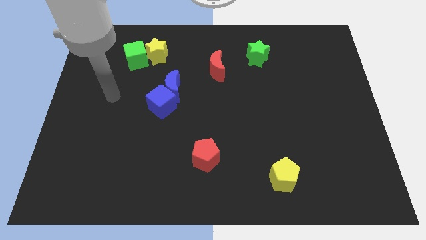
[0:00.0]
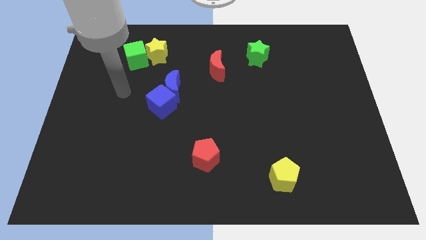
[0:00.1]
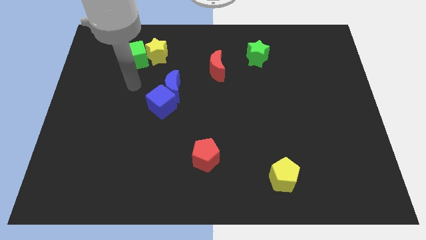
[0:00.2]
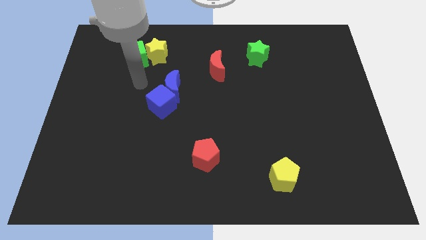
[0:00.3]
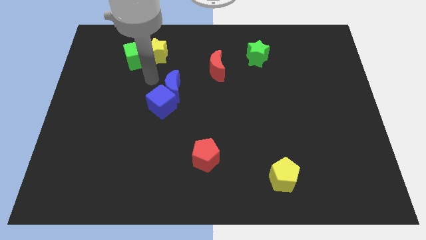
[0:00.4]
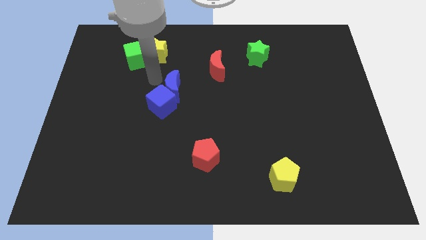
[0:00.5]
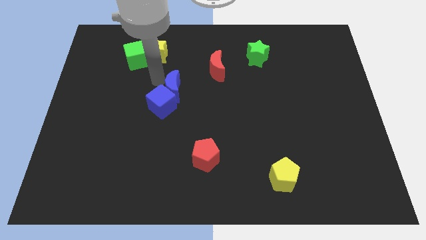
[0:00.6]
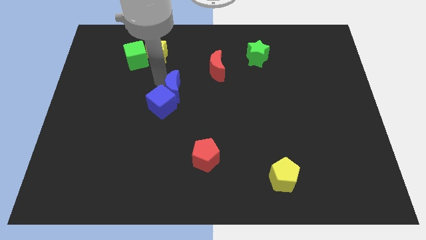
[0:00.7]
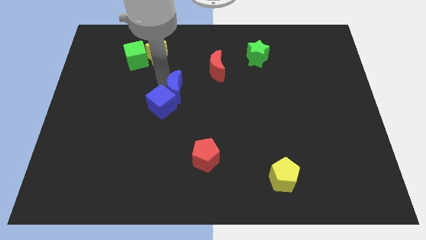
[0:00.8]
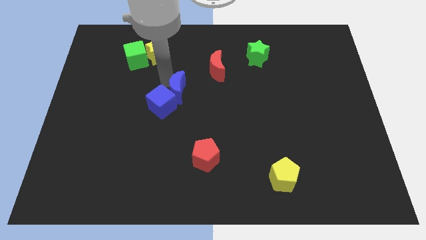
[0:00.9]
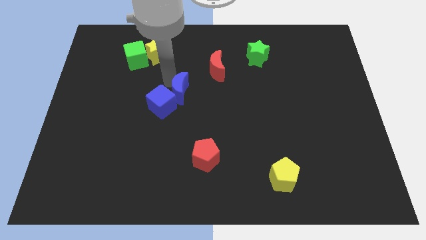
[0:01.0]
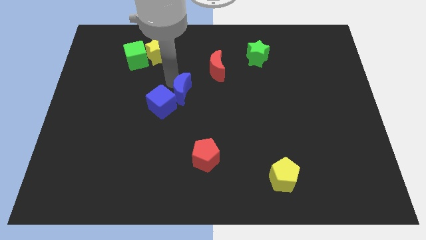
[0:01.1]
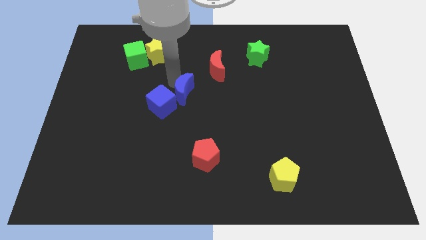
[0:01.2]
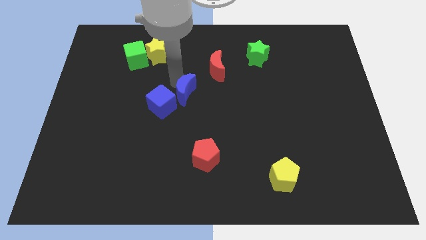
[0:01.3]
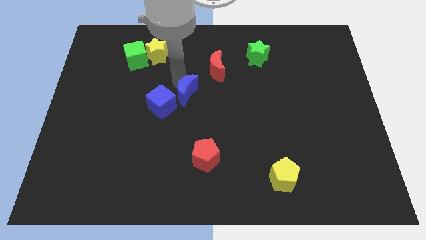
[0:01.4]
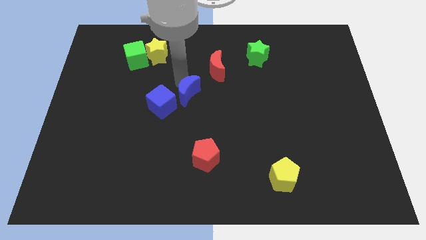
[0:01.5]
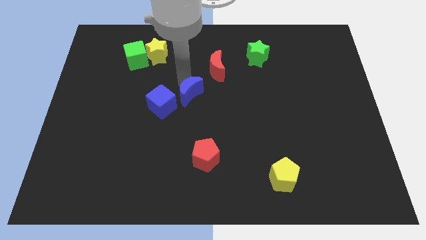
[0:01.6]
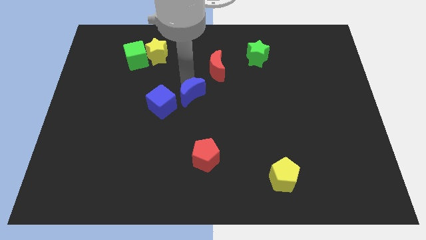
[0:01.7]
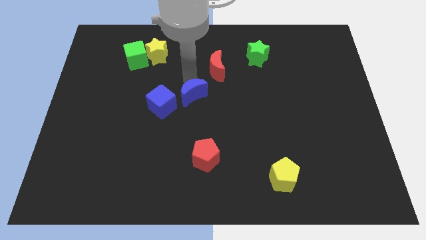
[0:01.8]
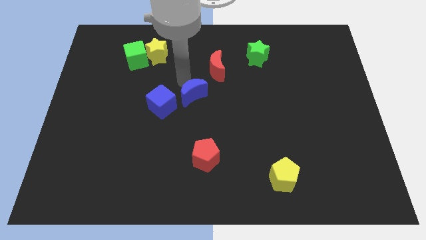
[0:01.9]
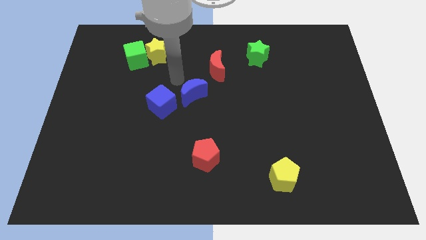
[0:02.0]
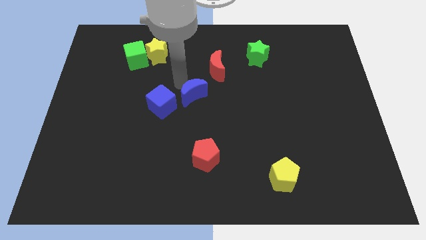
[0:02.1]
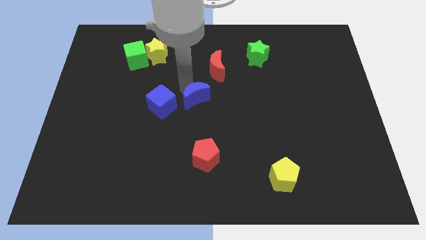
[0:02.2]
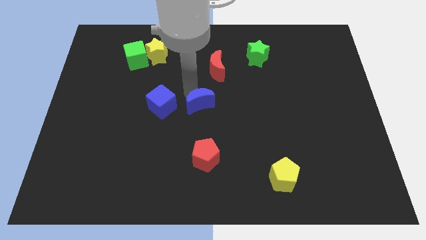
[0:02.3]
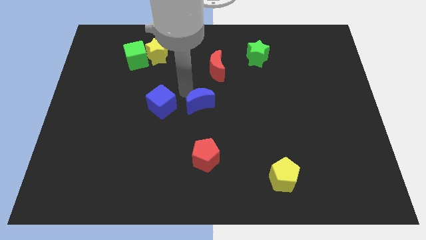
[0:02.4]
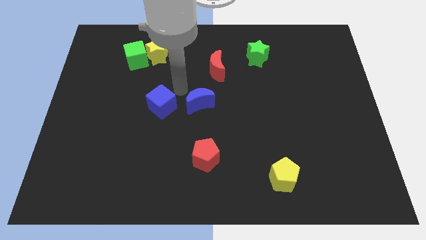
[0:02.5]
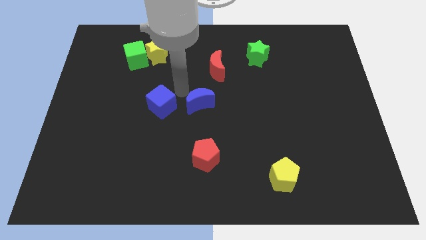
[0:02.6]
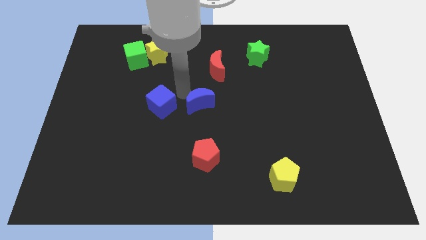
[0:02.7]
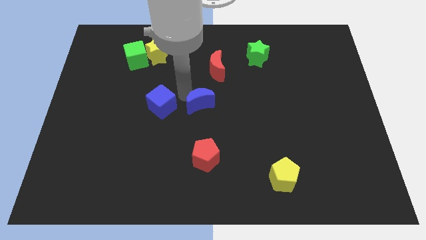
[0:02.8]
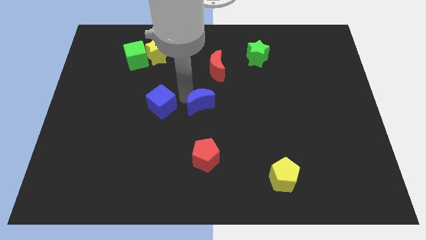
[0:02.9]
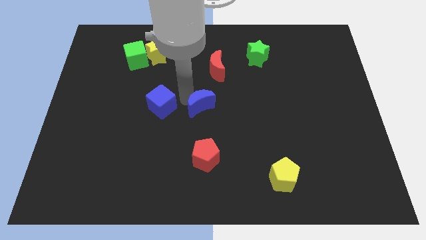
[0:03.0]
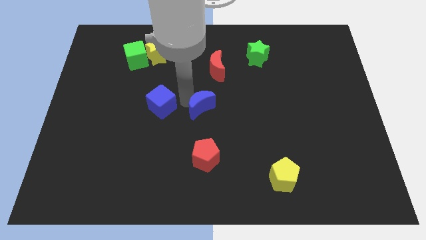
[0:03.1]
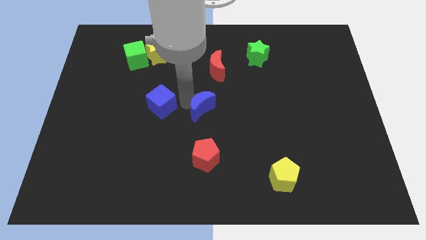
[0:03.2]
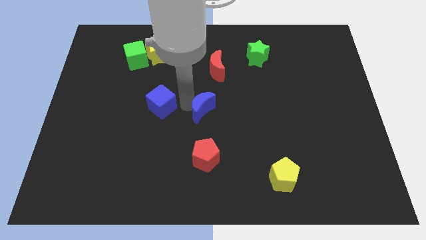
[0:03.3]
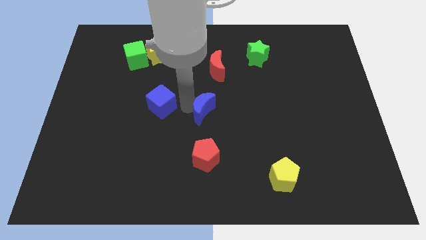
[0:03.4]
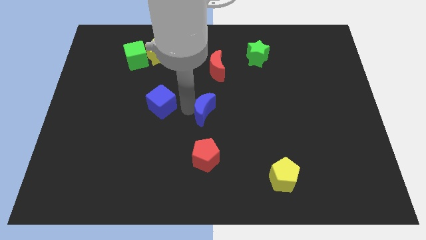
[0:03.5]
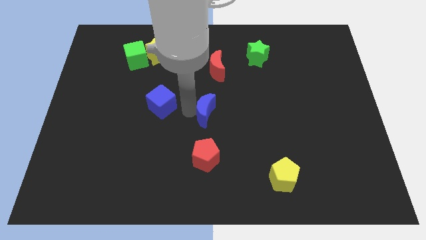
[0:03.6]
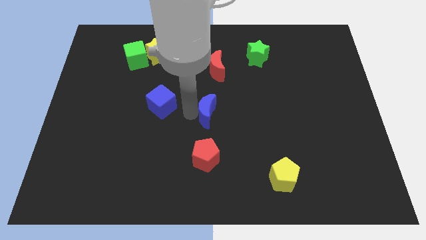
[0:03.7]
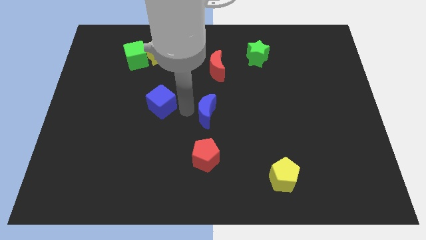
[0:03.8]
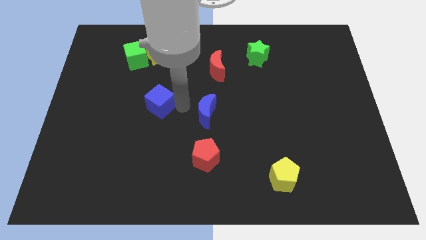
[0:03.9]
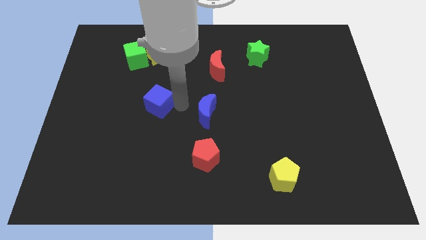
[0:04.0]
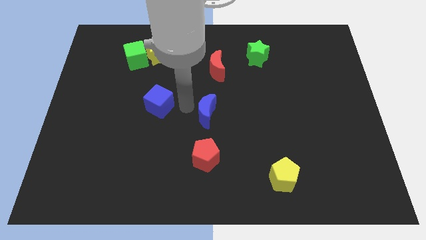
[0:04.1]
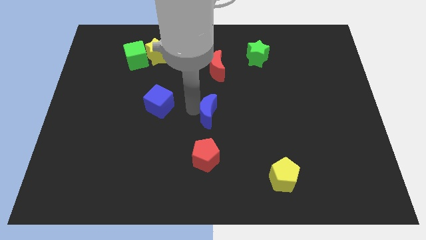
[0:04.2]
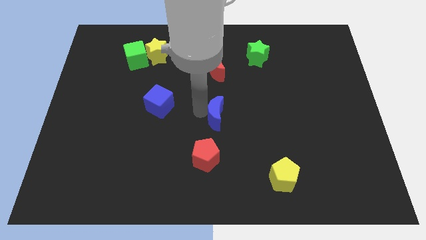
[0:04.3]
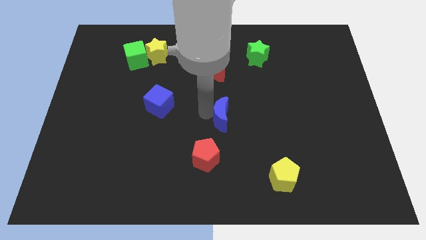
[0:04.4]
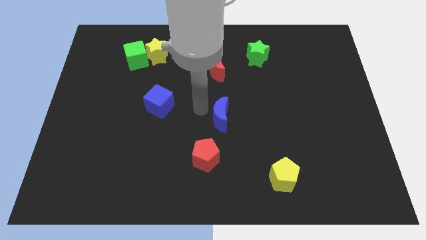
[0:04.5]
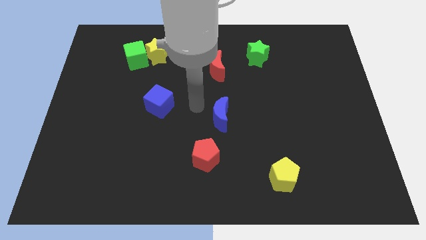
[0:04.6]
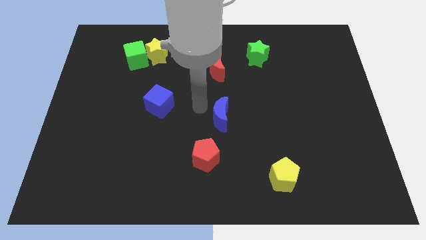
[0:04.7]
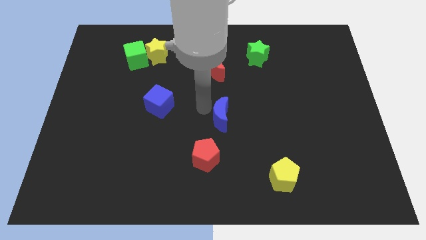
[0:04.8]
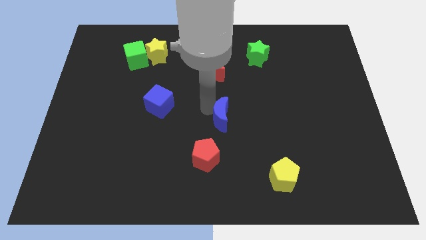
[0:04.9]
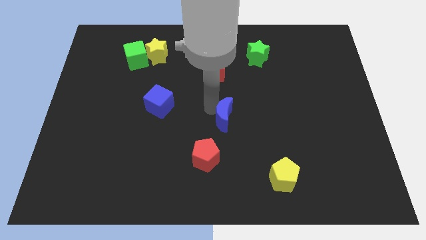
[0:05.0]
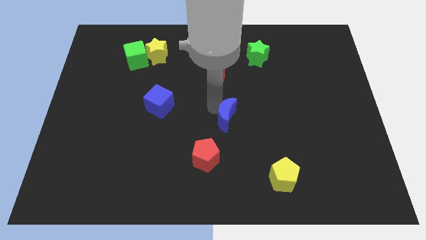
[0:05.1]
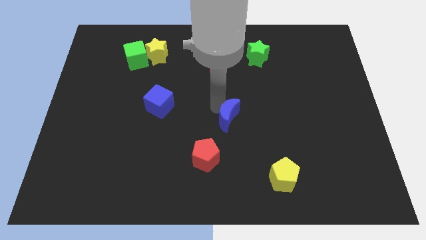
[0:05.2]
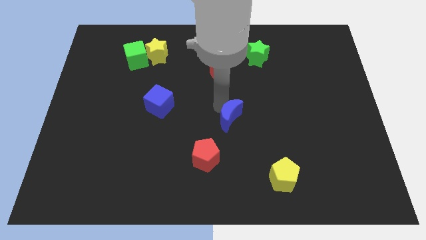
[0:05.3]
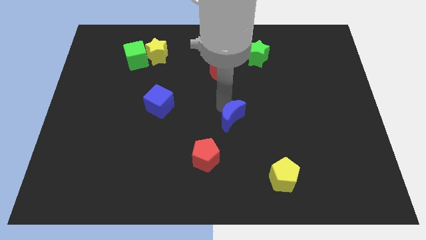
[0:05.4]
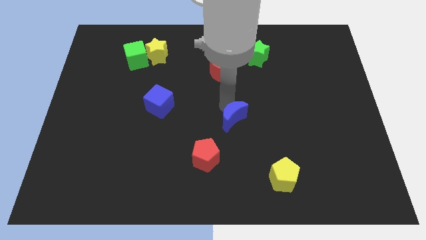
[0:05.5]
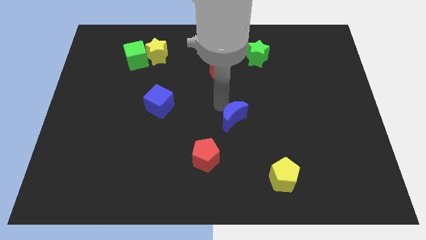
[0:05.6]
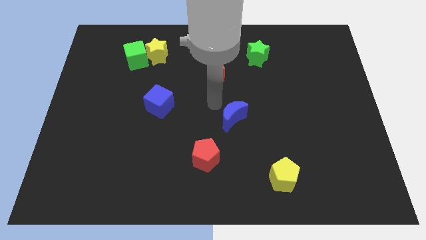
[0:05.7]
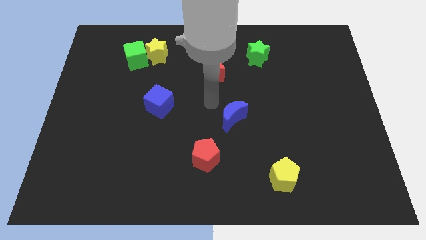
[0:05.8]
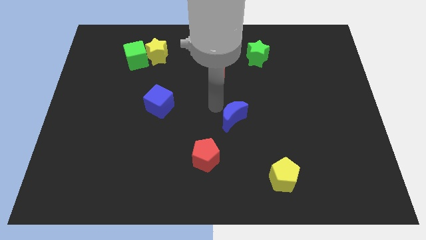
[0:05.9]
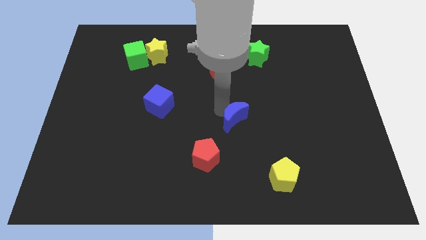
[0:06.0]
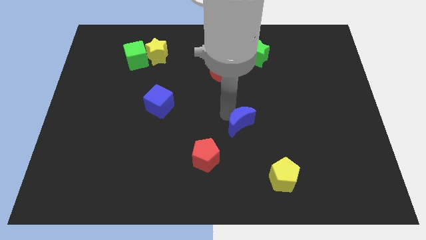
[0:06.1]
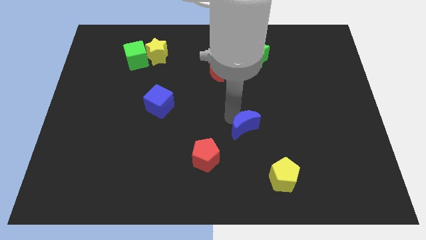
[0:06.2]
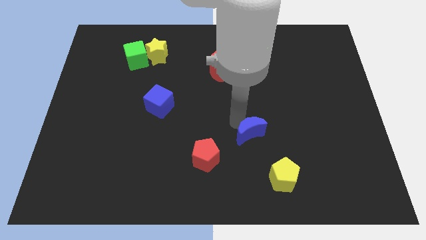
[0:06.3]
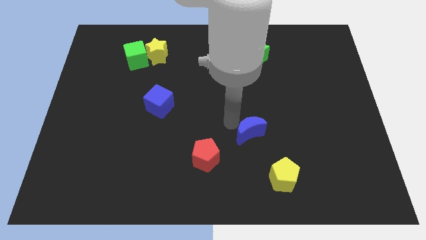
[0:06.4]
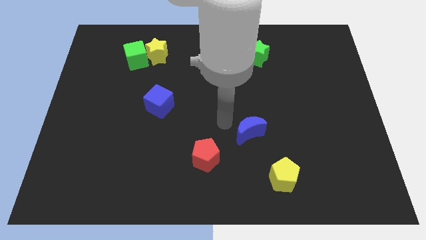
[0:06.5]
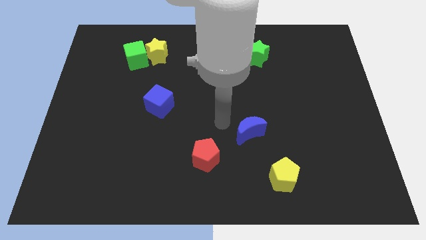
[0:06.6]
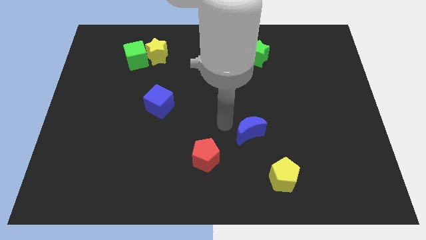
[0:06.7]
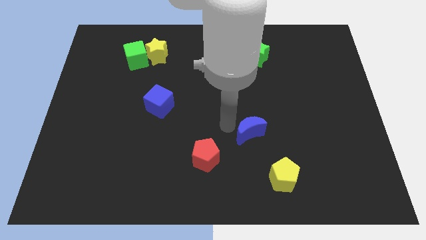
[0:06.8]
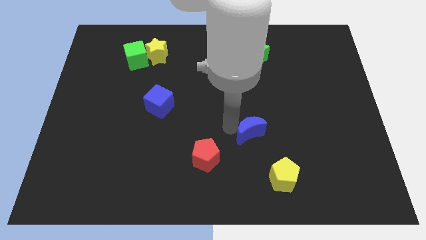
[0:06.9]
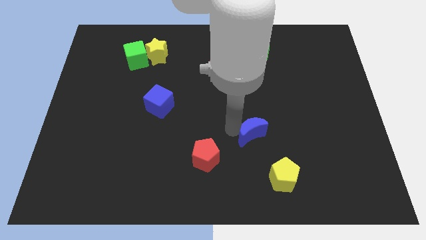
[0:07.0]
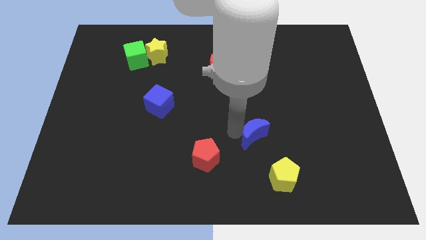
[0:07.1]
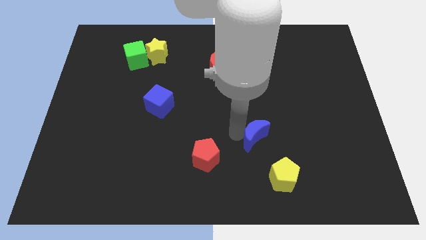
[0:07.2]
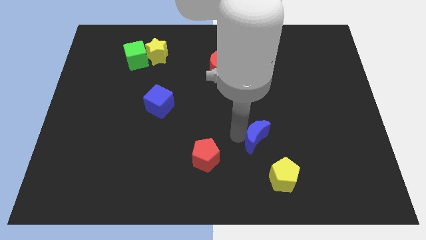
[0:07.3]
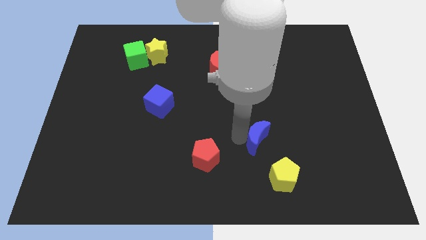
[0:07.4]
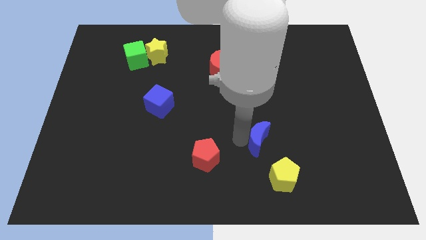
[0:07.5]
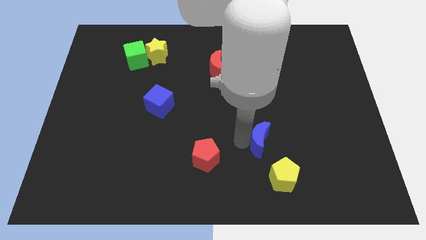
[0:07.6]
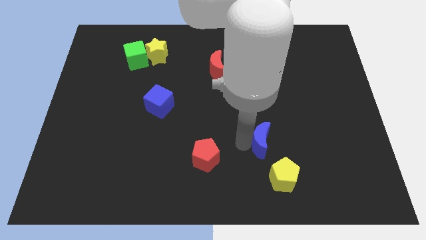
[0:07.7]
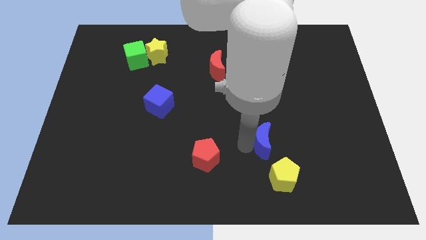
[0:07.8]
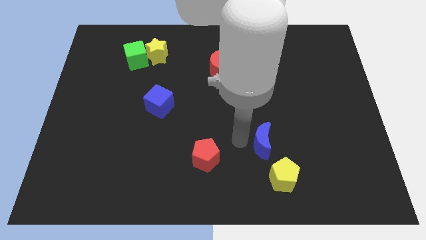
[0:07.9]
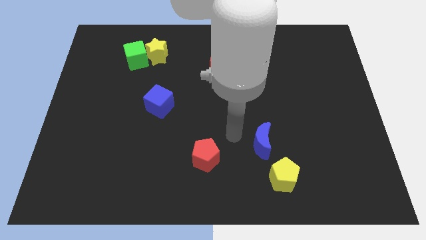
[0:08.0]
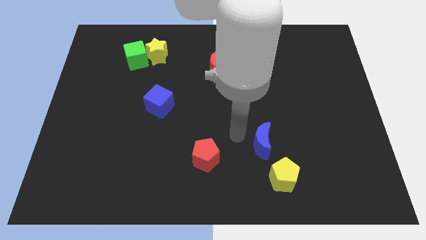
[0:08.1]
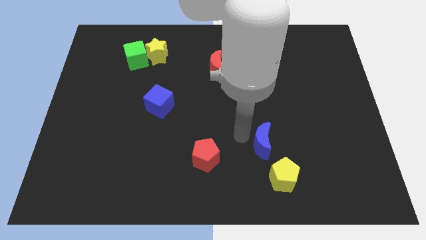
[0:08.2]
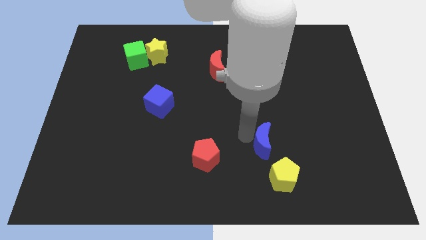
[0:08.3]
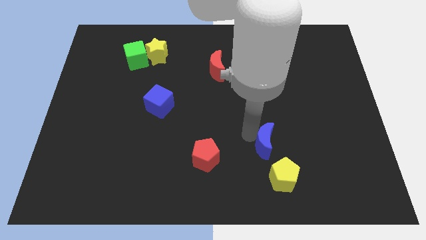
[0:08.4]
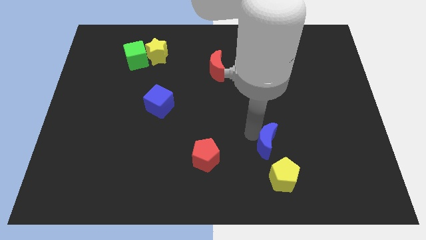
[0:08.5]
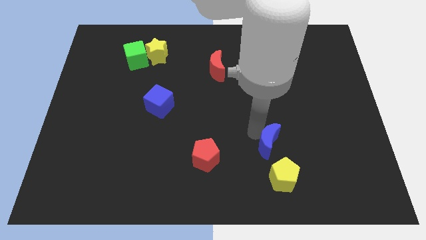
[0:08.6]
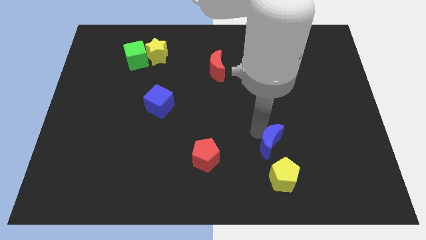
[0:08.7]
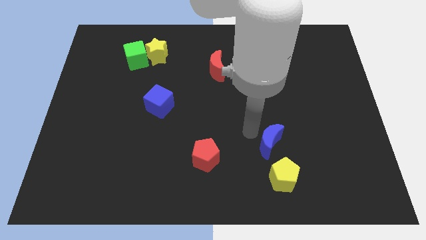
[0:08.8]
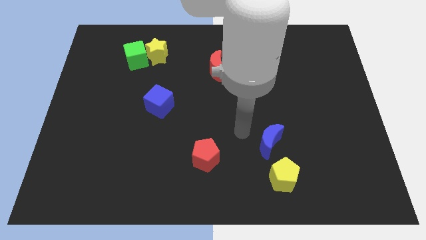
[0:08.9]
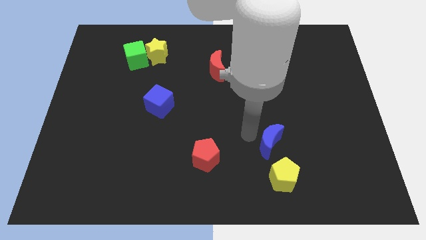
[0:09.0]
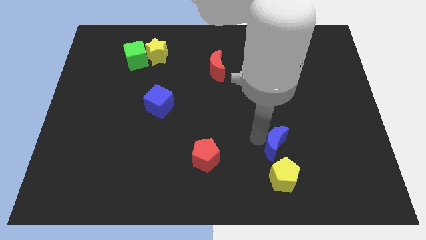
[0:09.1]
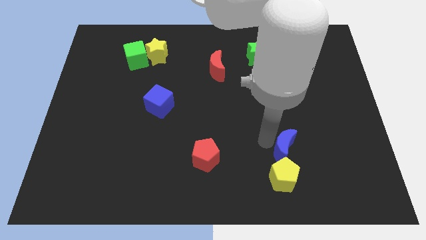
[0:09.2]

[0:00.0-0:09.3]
slide the blue moon to the top right side of the yellow pentagon
